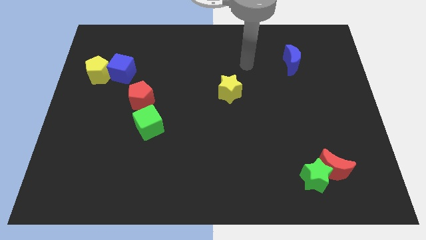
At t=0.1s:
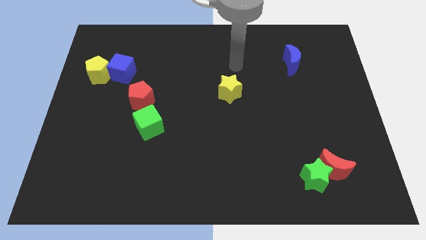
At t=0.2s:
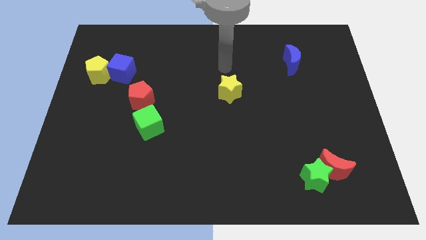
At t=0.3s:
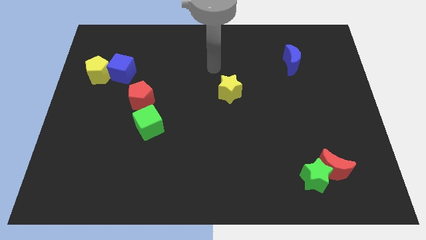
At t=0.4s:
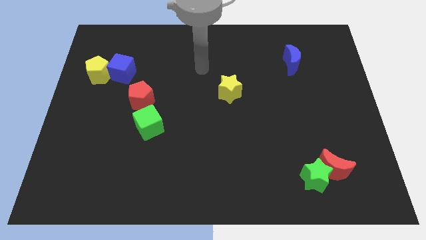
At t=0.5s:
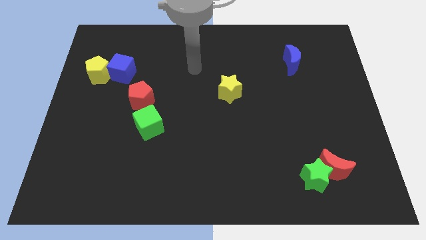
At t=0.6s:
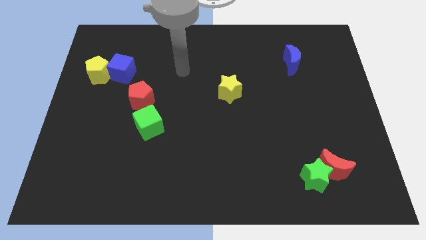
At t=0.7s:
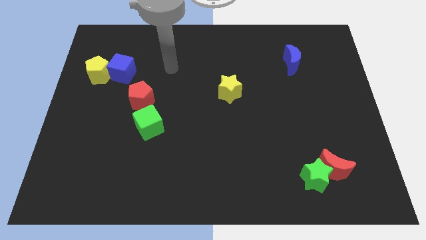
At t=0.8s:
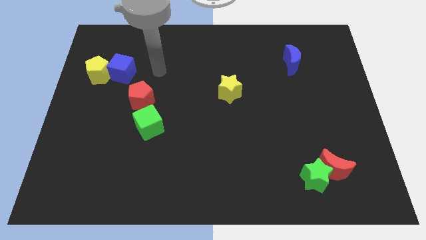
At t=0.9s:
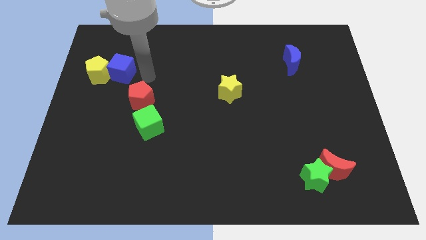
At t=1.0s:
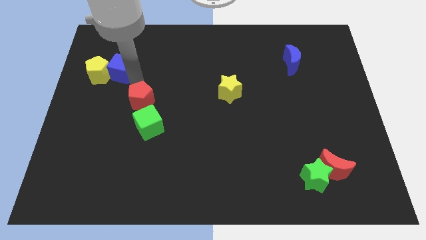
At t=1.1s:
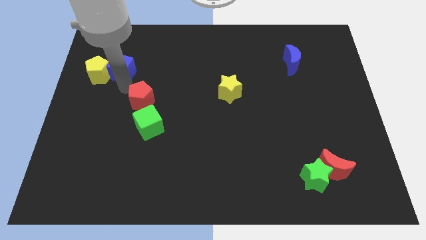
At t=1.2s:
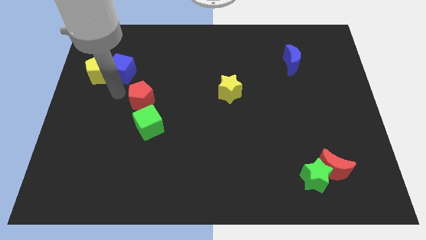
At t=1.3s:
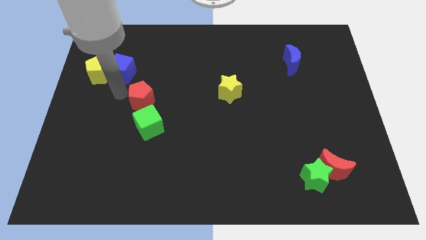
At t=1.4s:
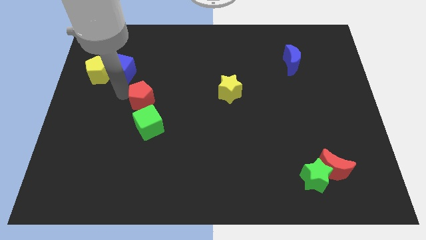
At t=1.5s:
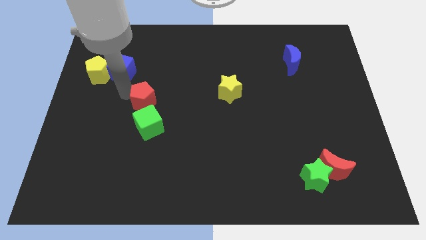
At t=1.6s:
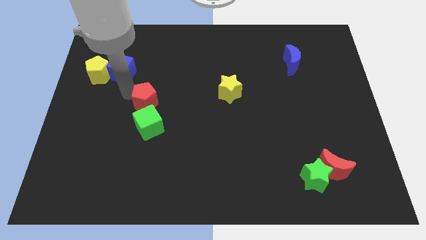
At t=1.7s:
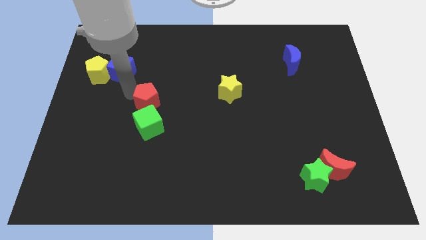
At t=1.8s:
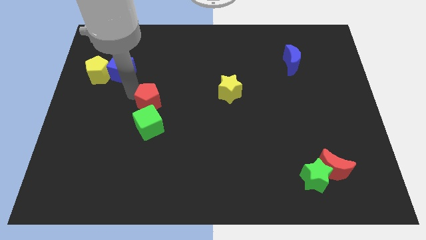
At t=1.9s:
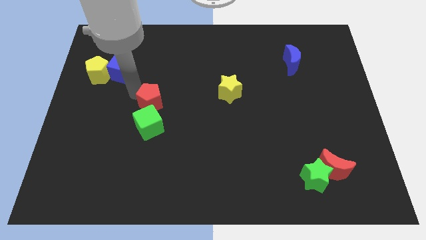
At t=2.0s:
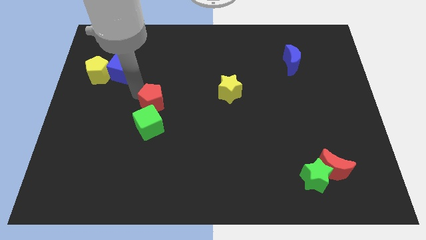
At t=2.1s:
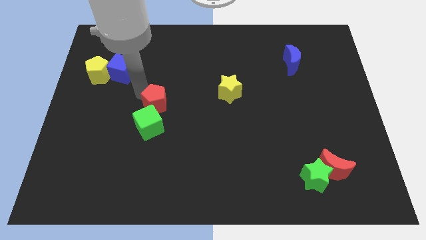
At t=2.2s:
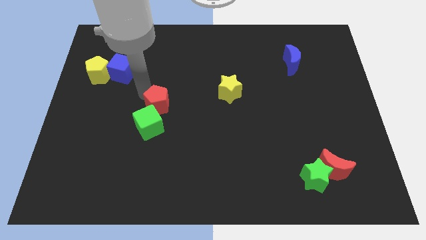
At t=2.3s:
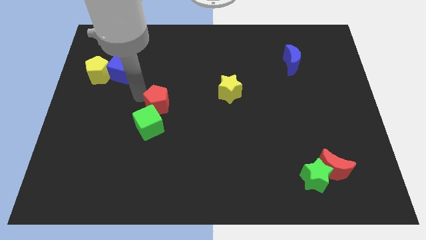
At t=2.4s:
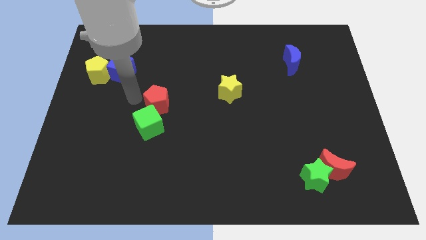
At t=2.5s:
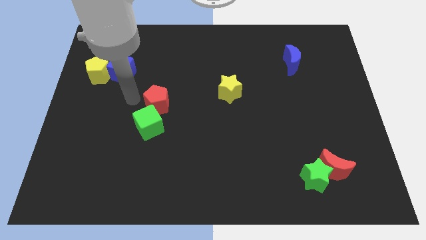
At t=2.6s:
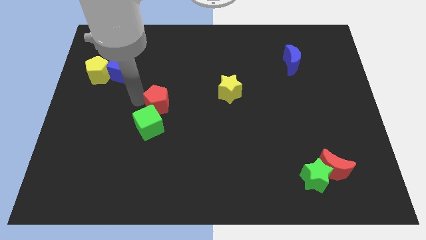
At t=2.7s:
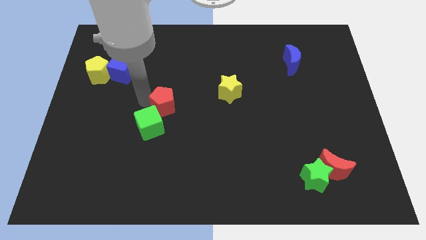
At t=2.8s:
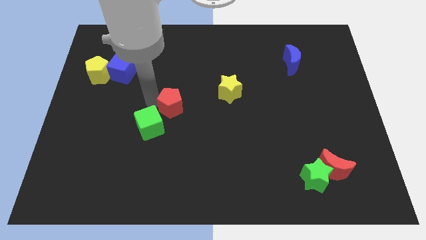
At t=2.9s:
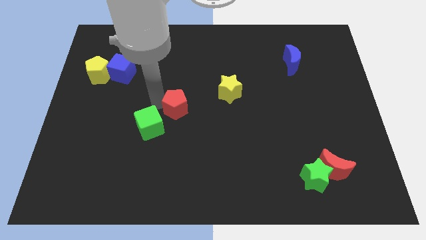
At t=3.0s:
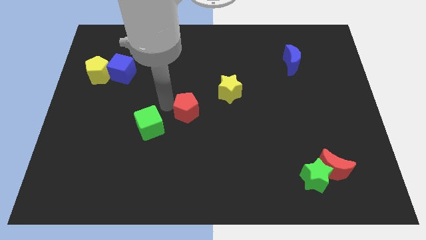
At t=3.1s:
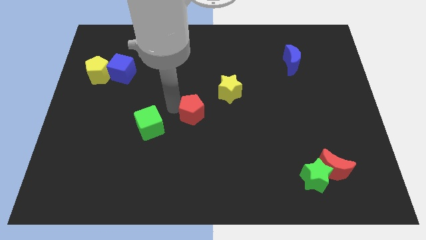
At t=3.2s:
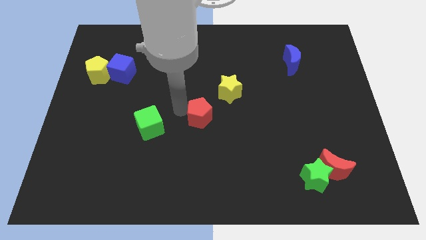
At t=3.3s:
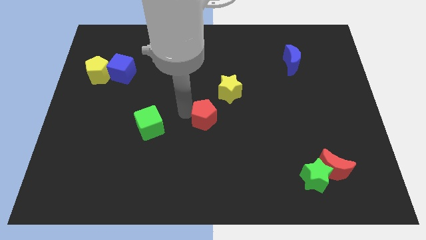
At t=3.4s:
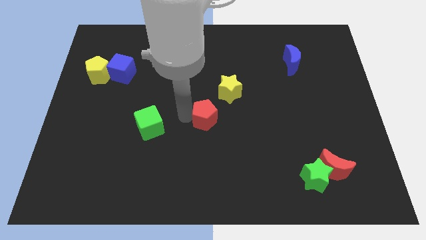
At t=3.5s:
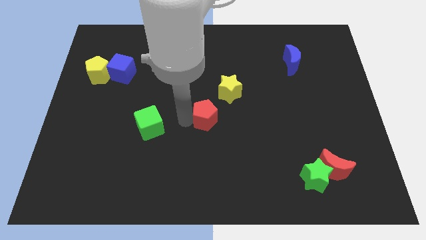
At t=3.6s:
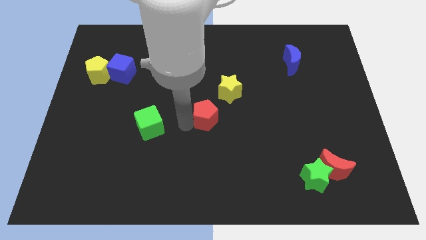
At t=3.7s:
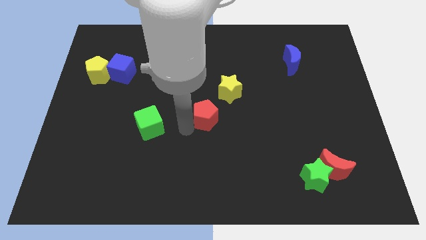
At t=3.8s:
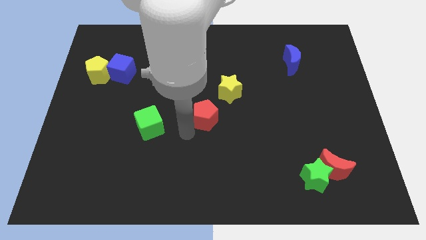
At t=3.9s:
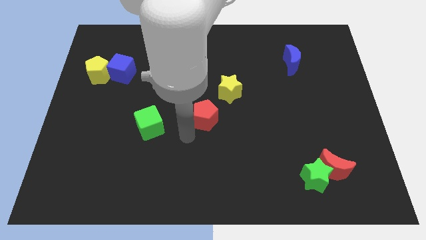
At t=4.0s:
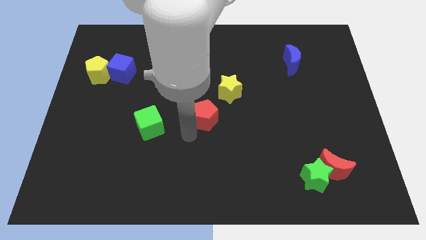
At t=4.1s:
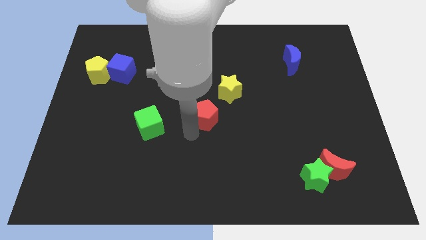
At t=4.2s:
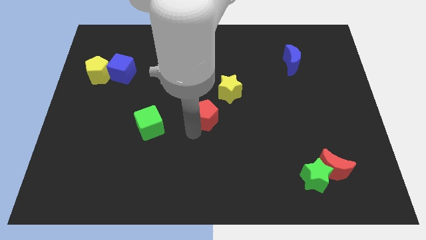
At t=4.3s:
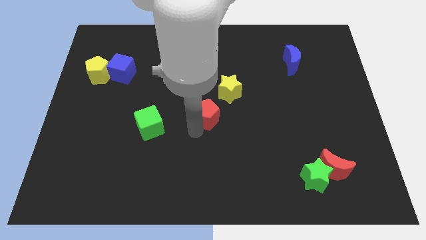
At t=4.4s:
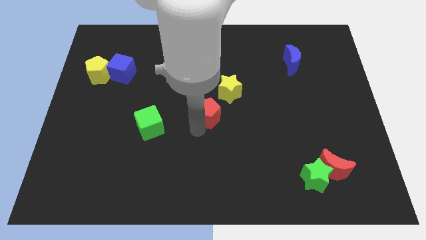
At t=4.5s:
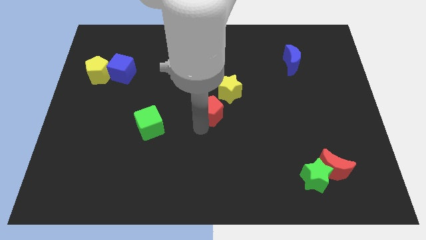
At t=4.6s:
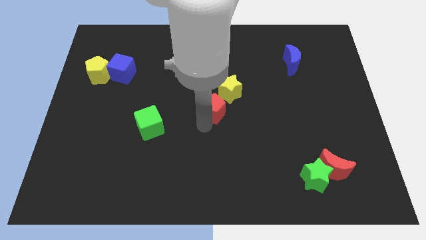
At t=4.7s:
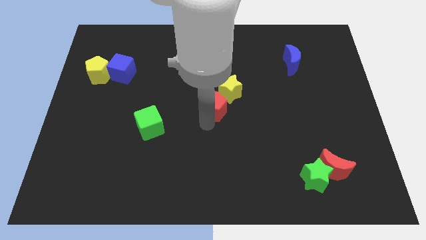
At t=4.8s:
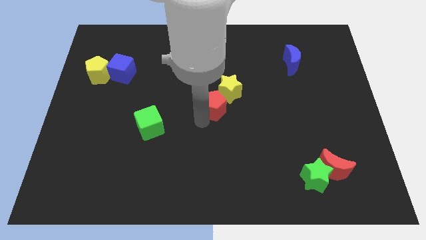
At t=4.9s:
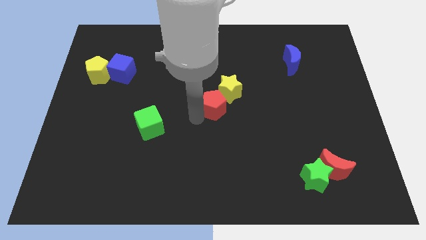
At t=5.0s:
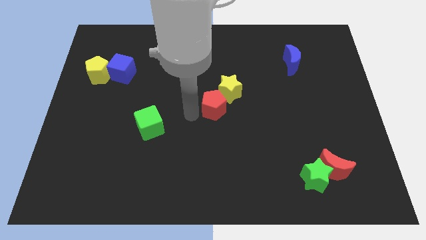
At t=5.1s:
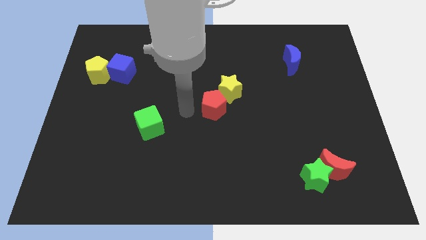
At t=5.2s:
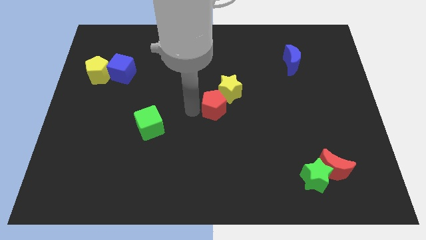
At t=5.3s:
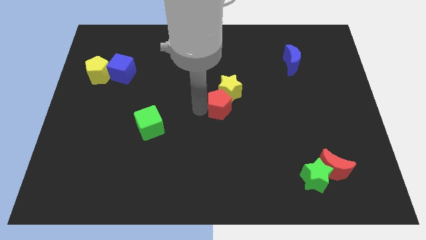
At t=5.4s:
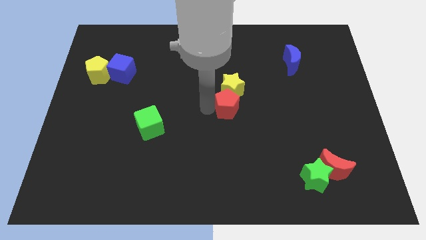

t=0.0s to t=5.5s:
move the red pentagon right

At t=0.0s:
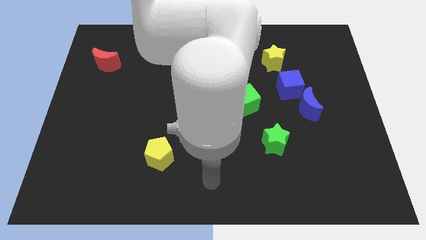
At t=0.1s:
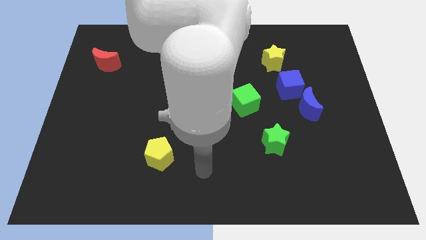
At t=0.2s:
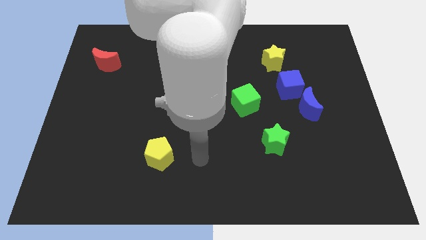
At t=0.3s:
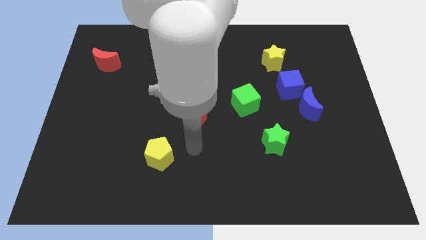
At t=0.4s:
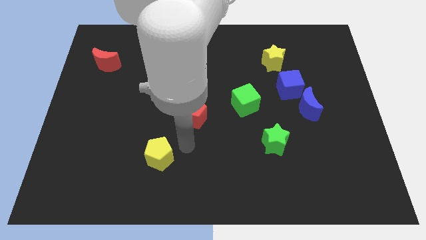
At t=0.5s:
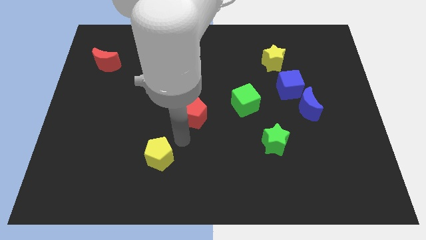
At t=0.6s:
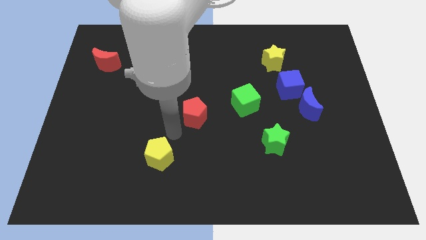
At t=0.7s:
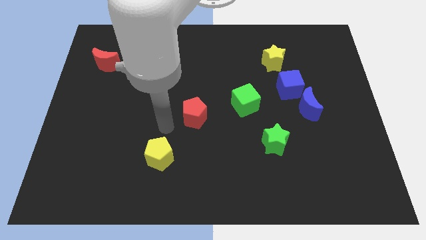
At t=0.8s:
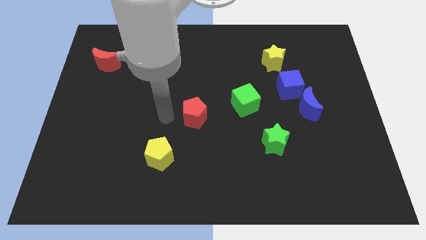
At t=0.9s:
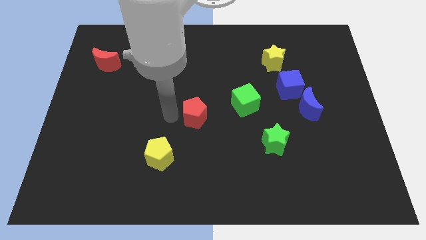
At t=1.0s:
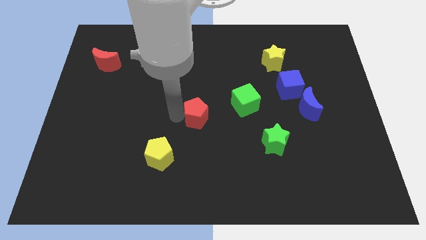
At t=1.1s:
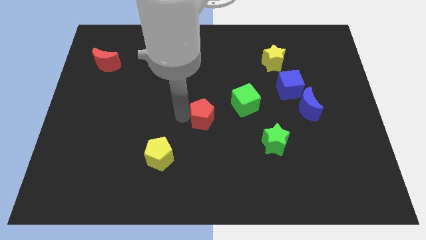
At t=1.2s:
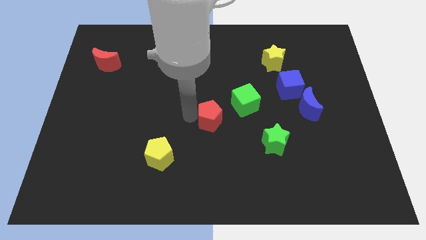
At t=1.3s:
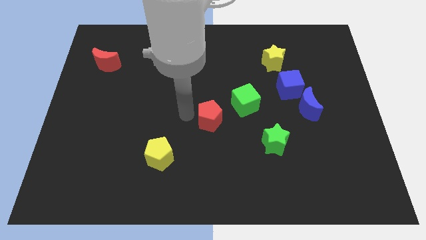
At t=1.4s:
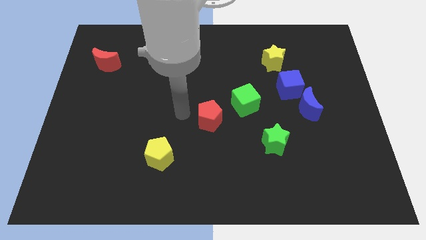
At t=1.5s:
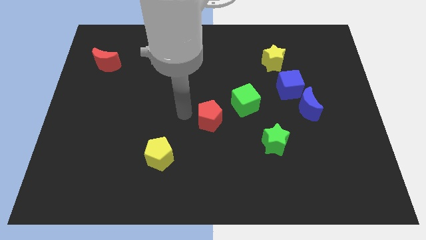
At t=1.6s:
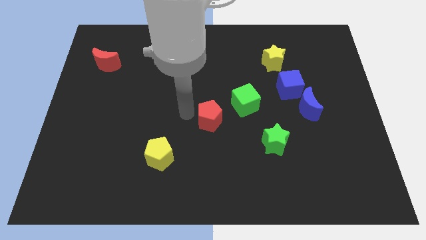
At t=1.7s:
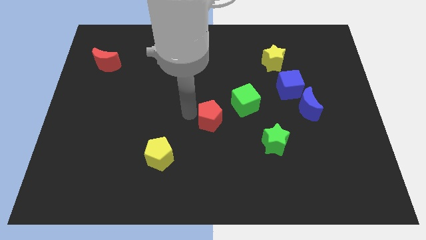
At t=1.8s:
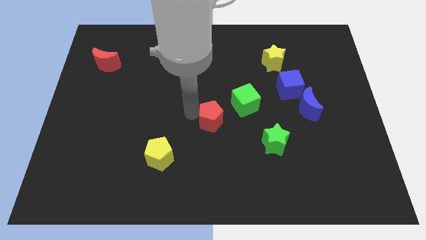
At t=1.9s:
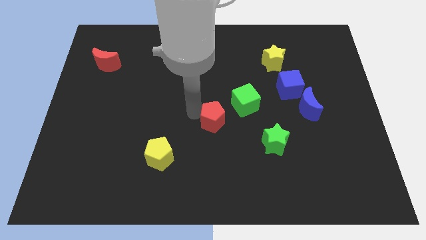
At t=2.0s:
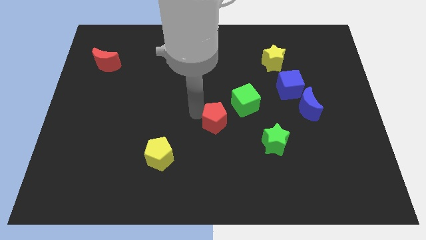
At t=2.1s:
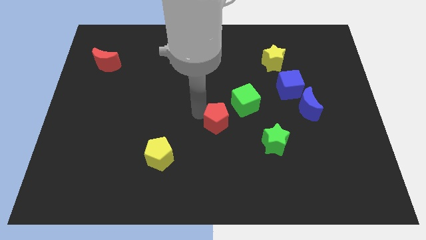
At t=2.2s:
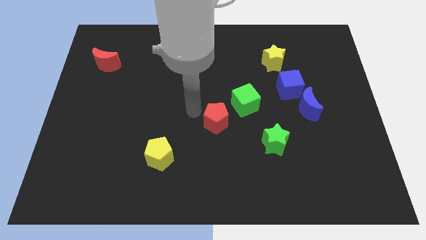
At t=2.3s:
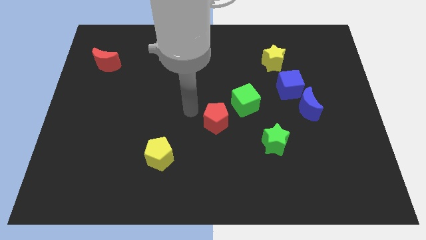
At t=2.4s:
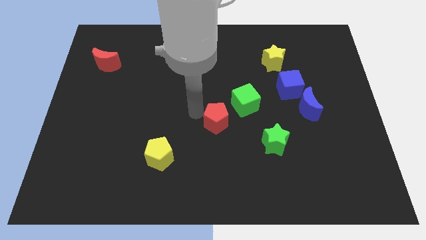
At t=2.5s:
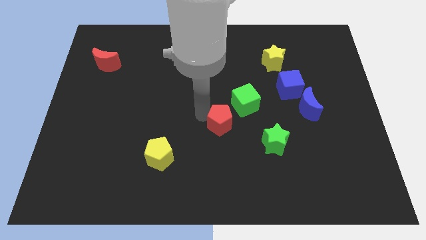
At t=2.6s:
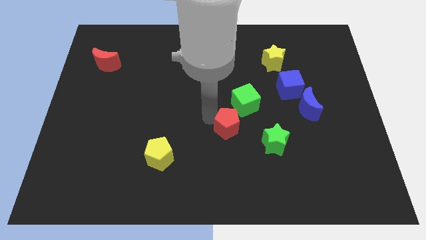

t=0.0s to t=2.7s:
slightly slide the red pentagon to the right
